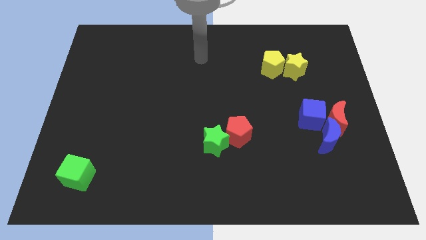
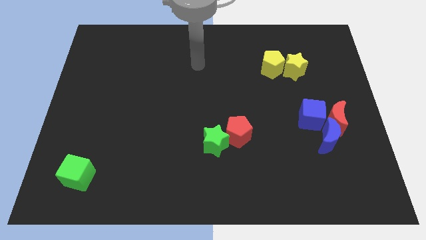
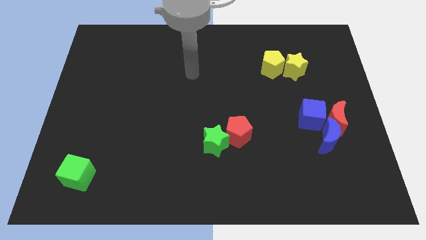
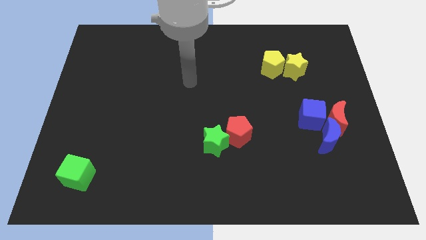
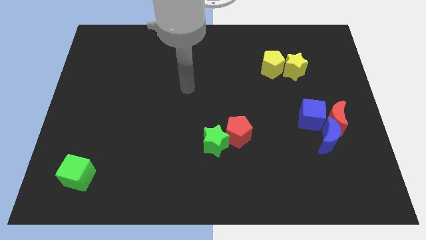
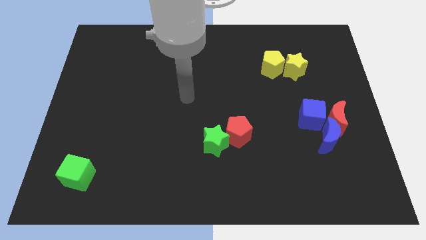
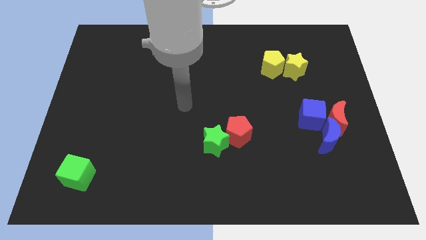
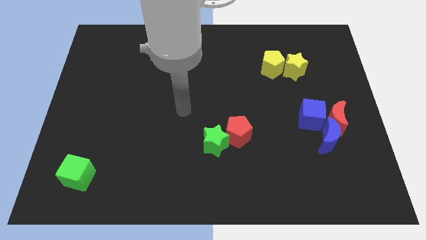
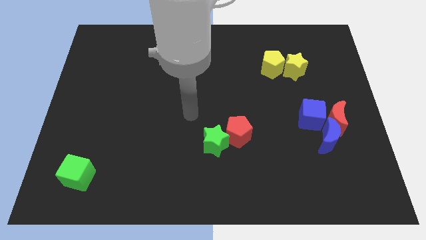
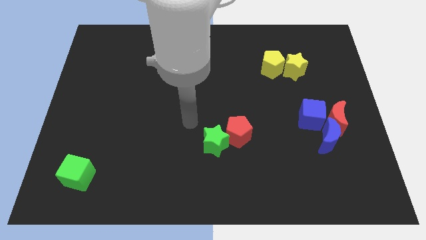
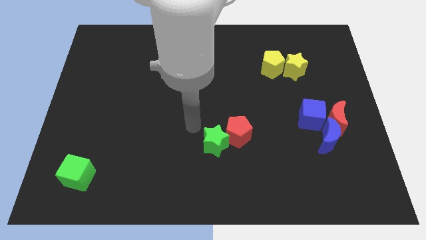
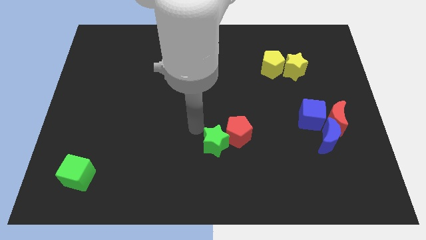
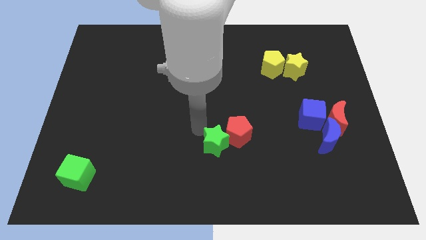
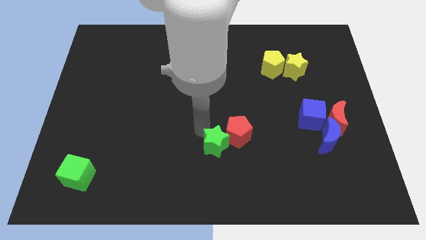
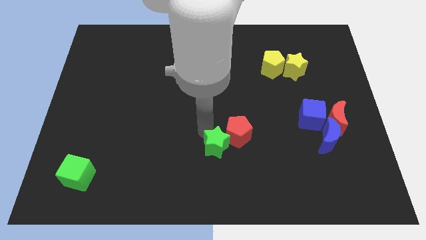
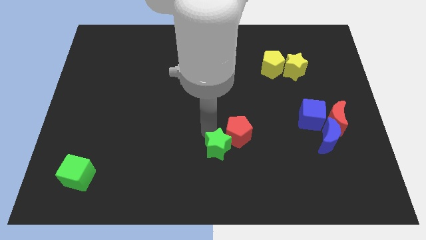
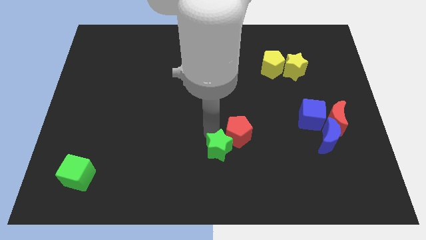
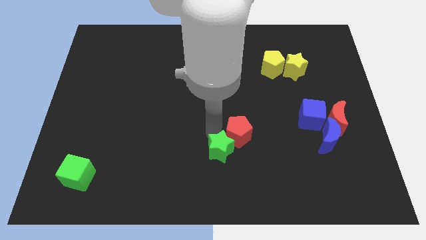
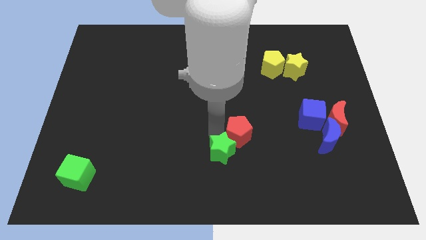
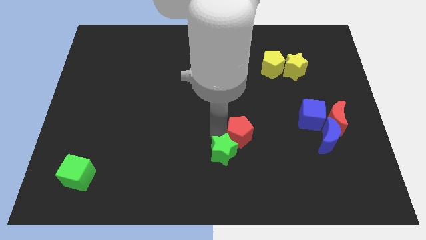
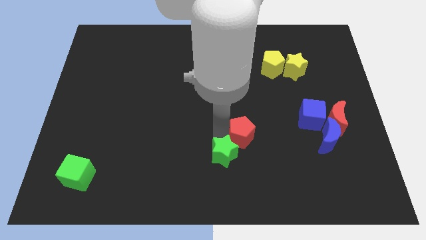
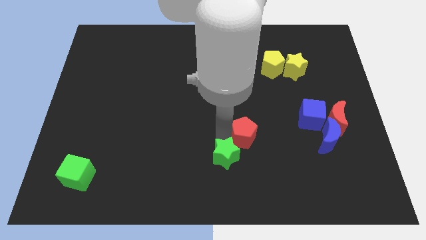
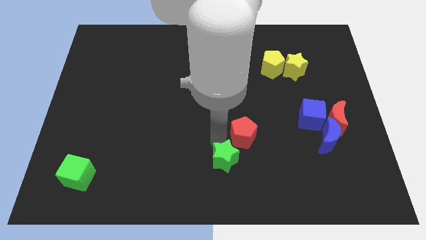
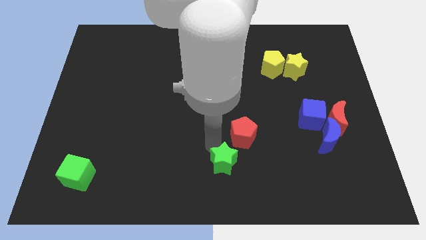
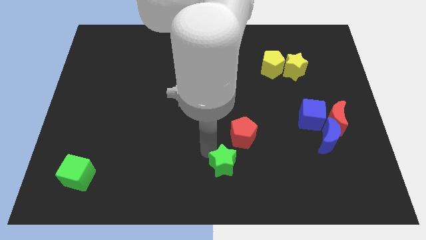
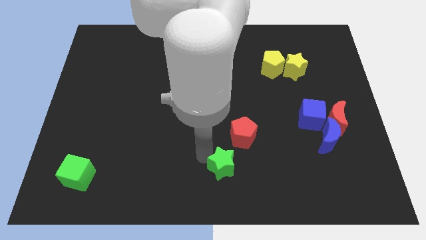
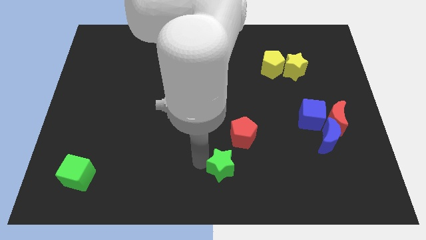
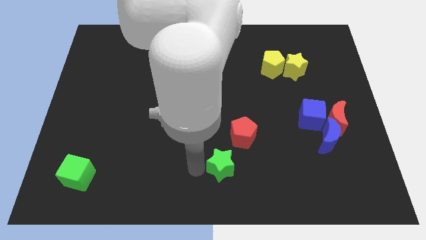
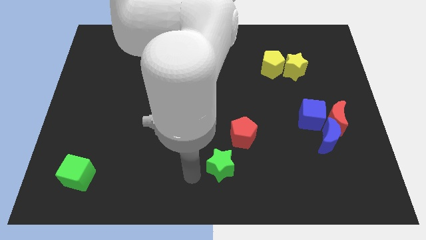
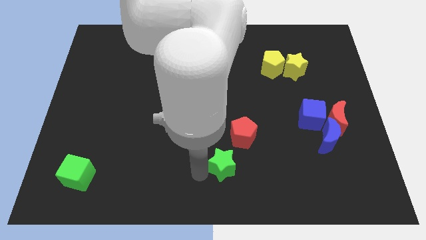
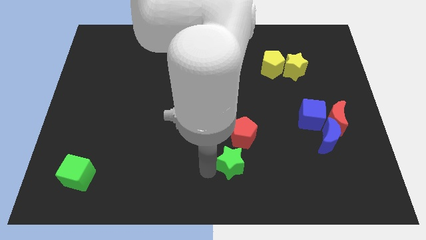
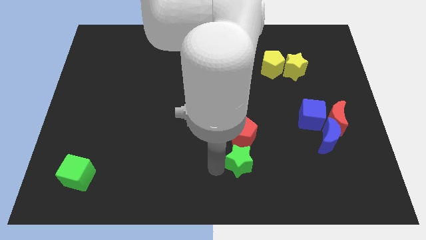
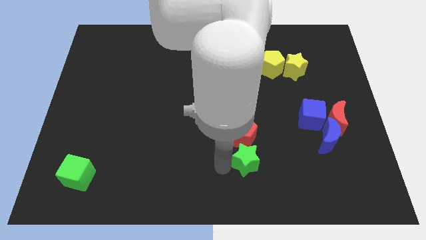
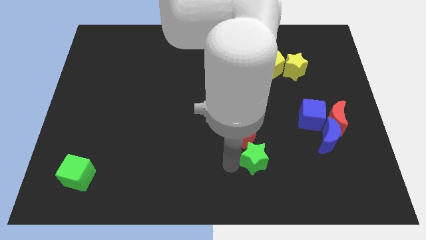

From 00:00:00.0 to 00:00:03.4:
slightly move the green star to the right

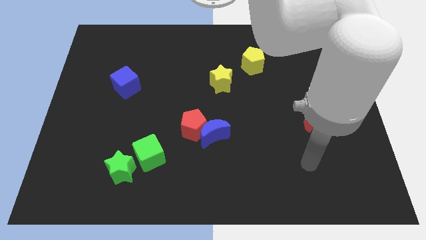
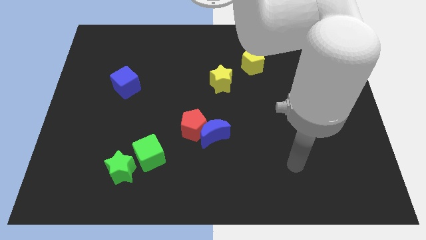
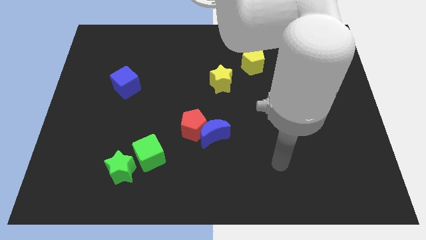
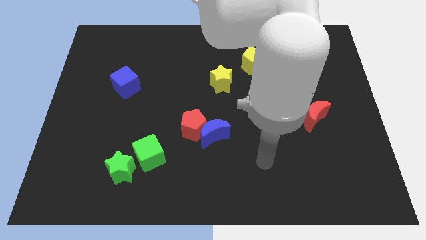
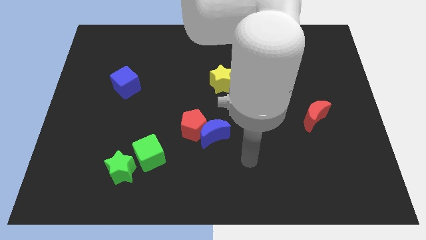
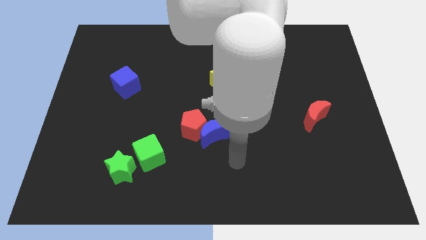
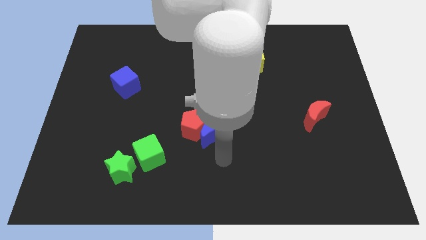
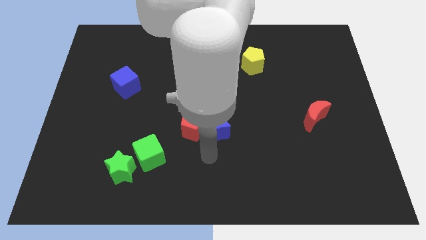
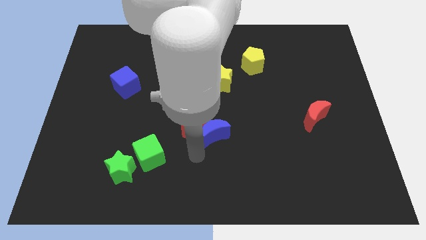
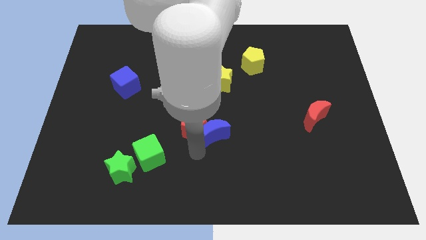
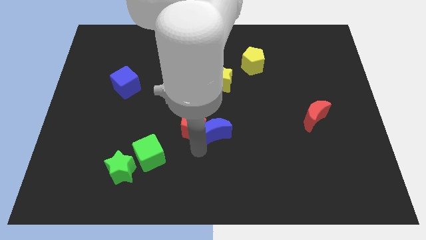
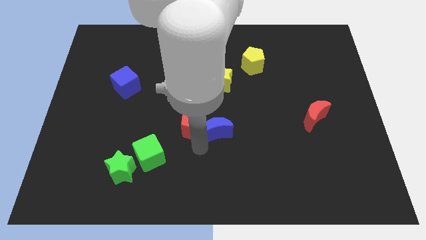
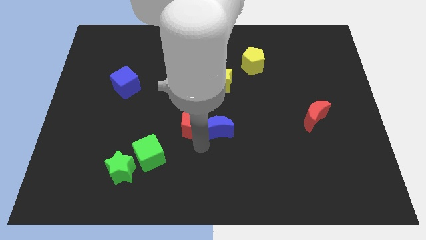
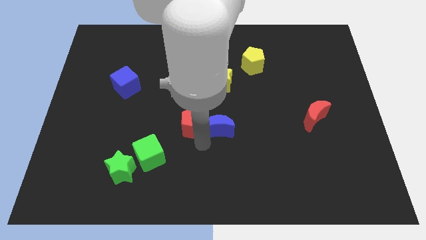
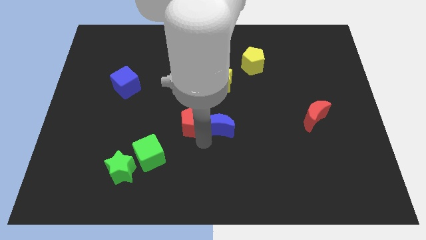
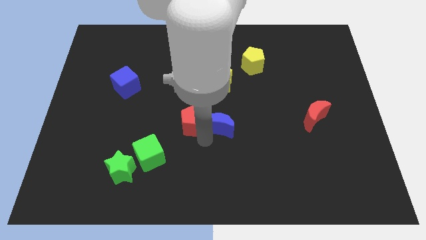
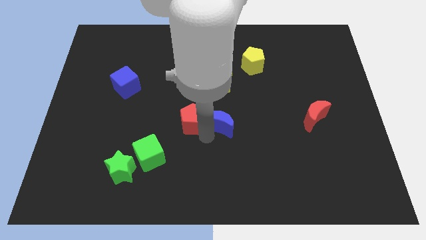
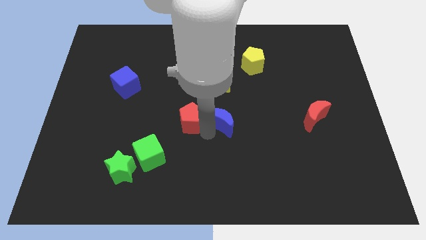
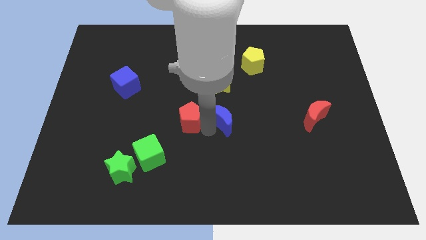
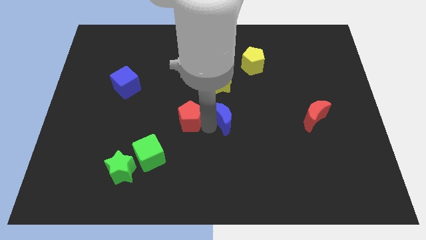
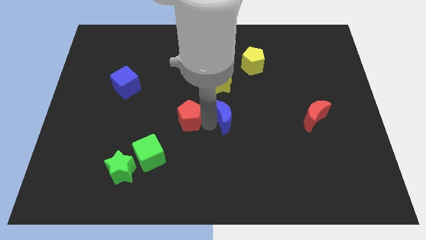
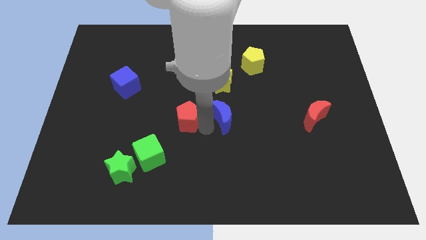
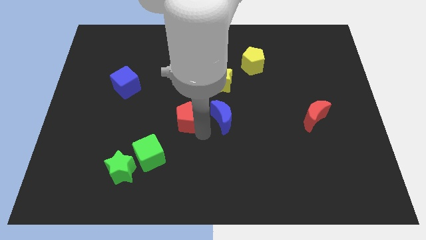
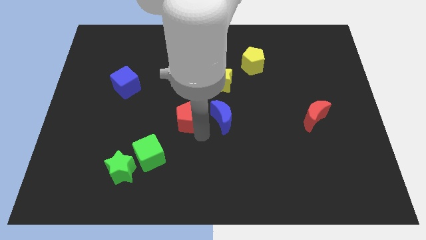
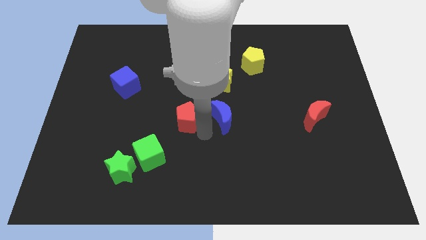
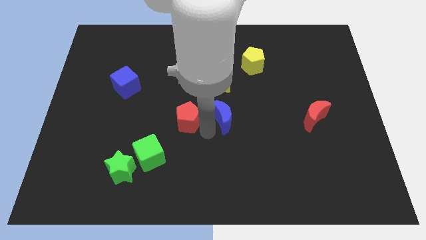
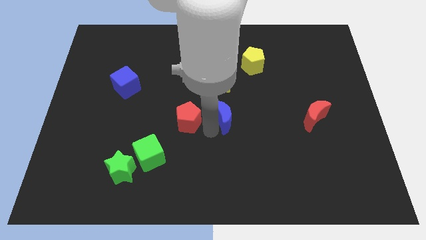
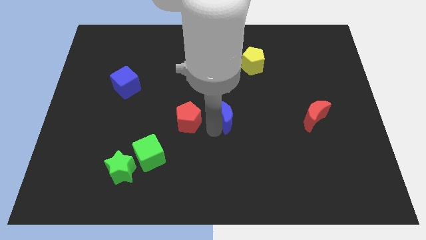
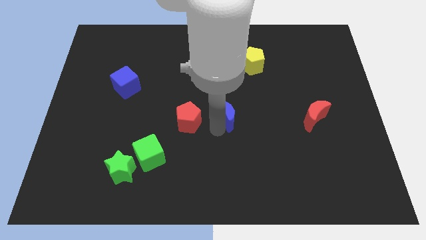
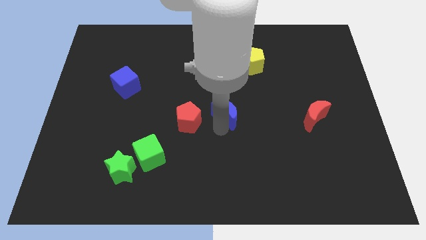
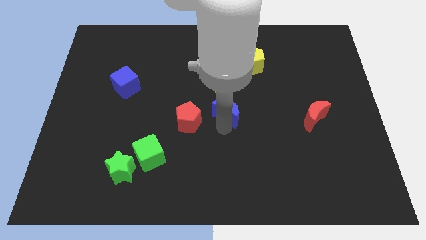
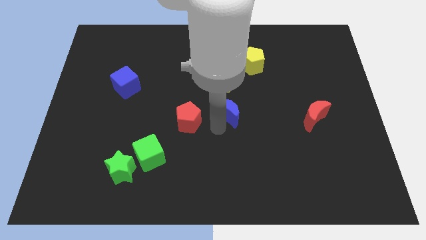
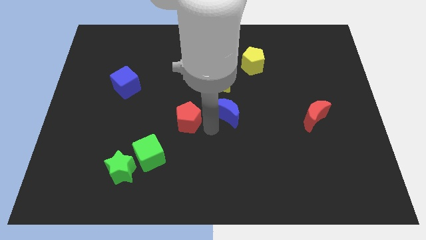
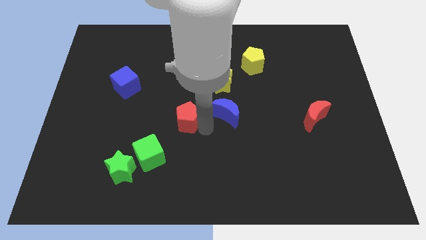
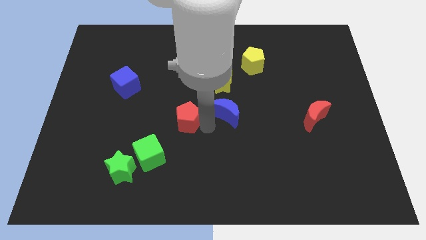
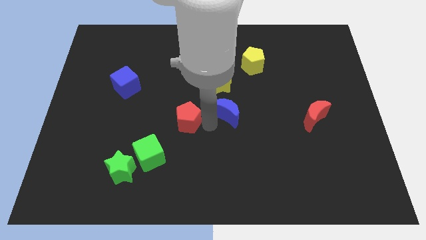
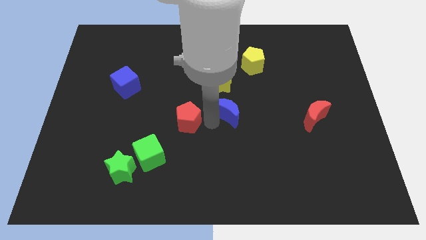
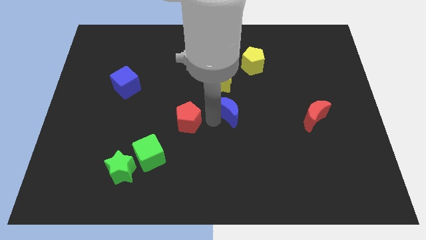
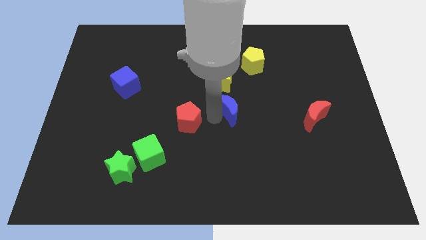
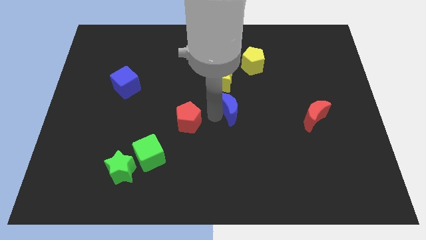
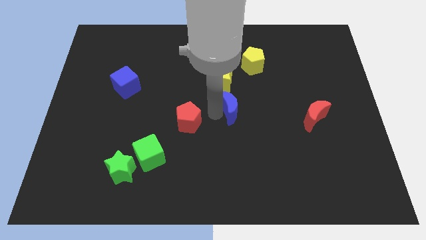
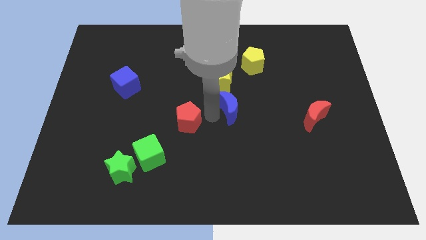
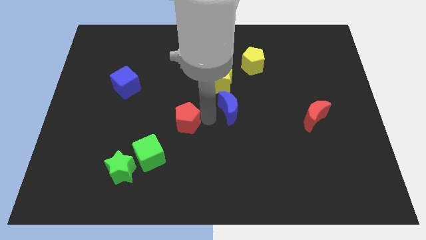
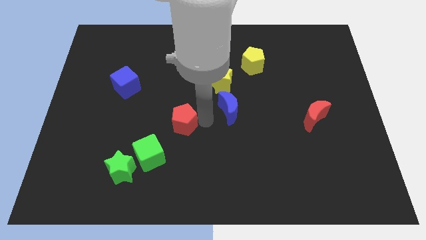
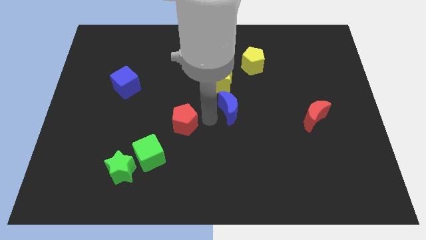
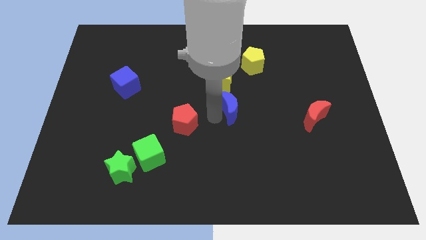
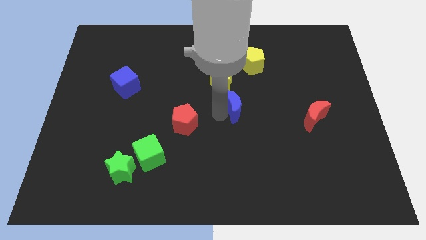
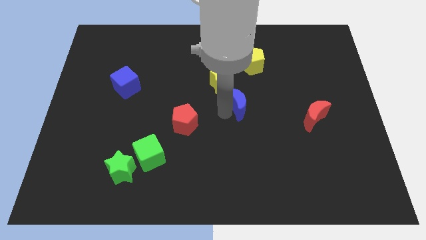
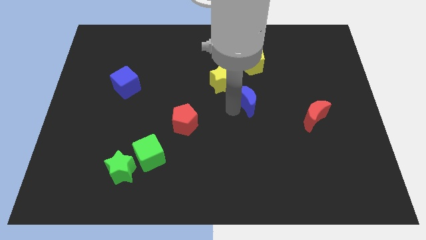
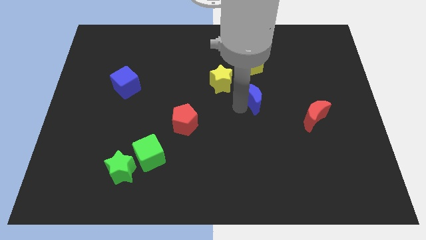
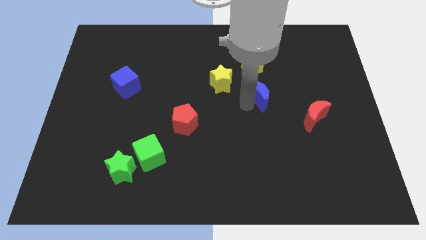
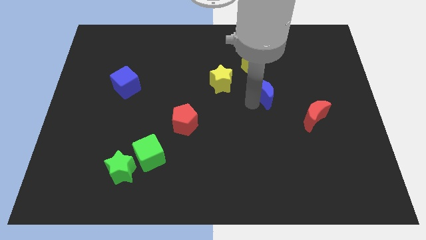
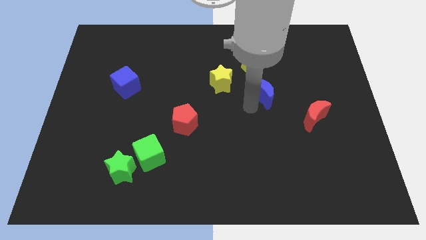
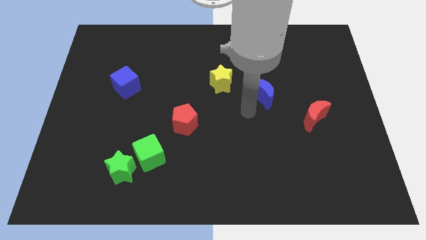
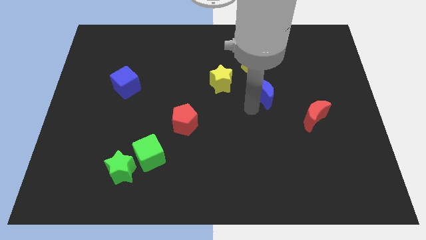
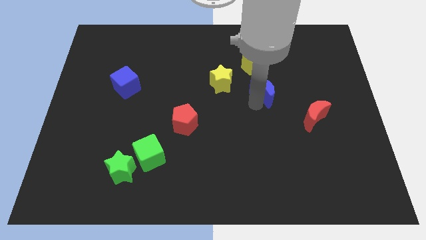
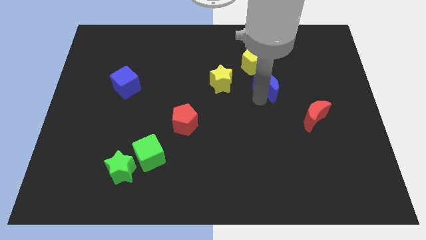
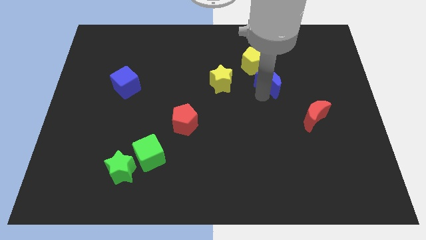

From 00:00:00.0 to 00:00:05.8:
move the blue moon upwards and then right
